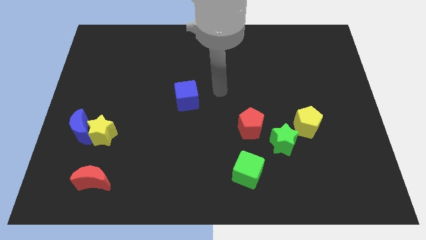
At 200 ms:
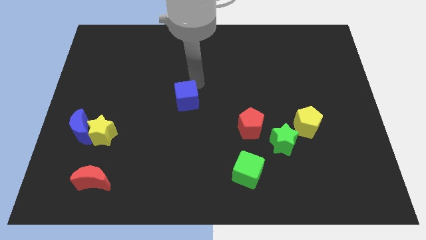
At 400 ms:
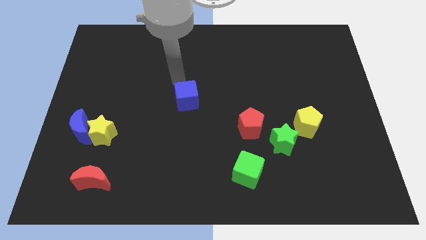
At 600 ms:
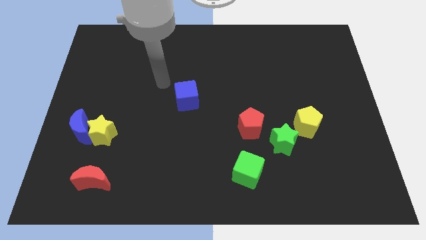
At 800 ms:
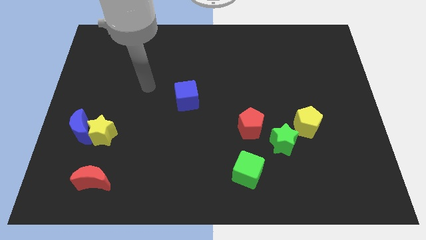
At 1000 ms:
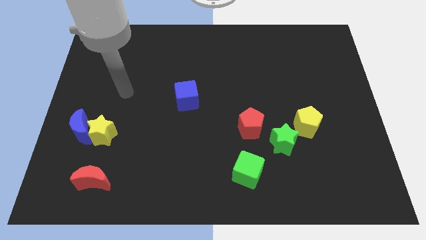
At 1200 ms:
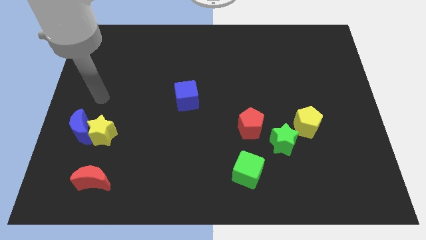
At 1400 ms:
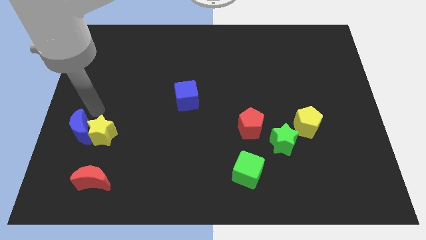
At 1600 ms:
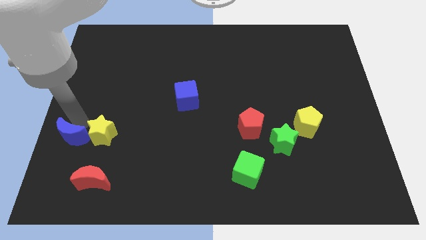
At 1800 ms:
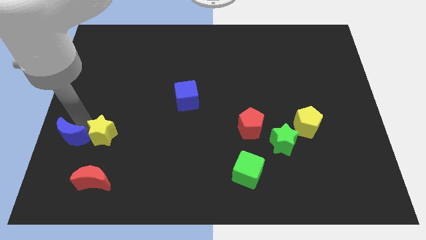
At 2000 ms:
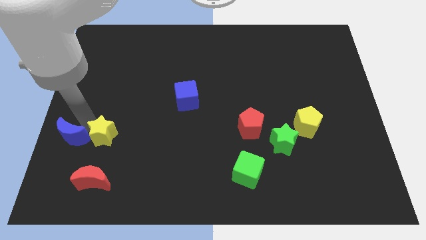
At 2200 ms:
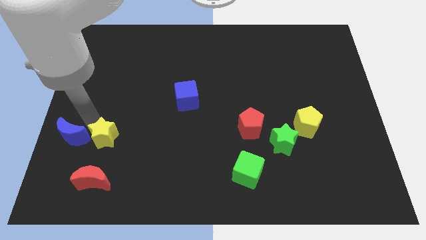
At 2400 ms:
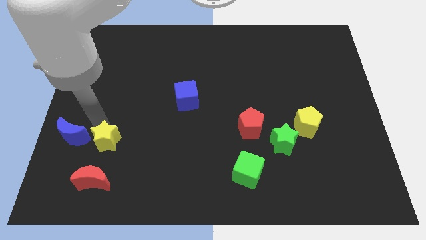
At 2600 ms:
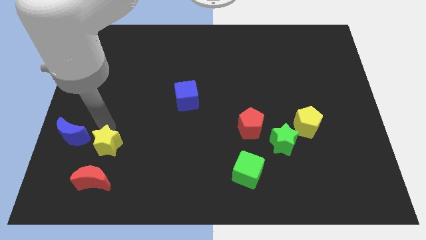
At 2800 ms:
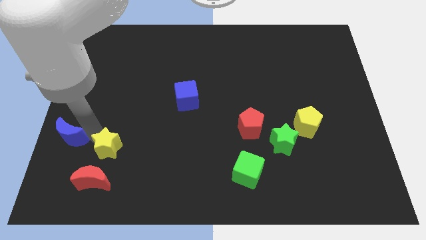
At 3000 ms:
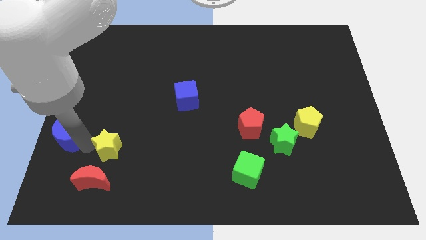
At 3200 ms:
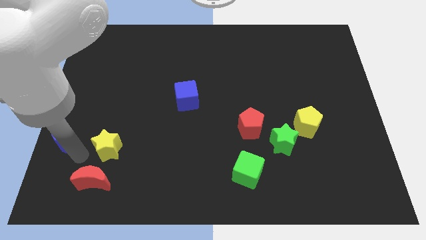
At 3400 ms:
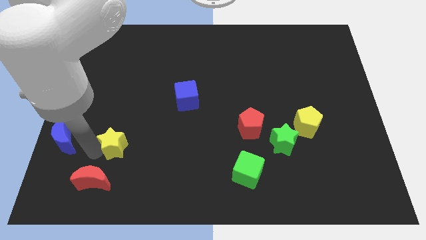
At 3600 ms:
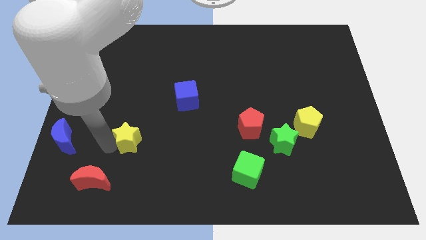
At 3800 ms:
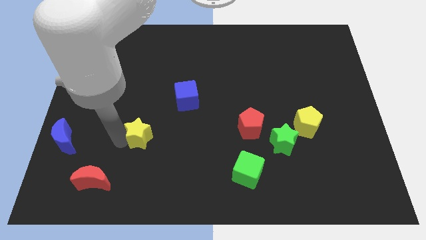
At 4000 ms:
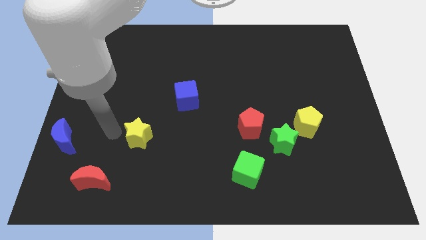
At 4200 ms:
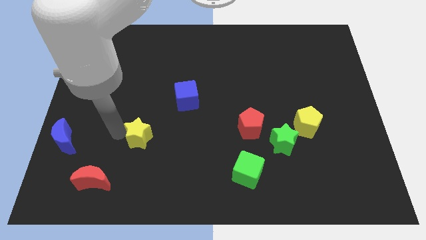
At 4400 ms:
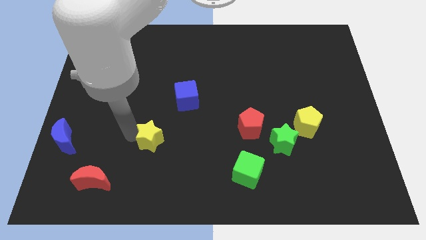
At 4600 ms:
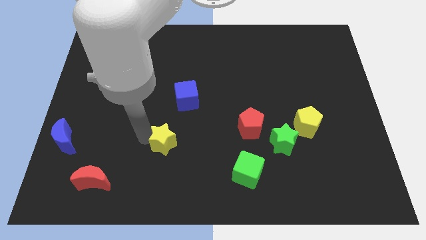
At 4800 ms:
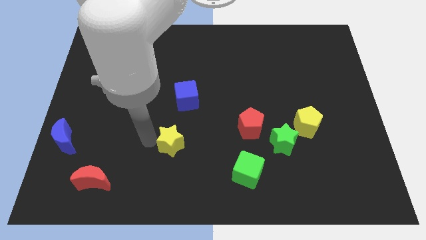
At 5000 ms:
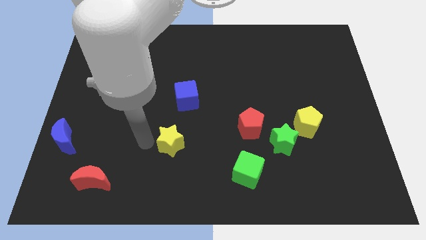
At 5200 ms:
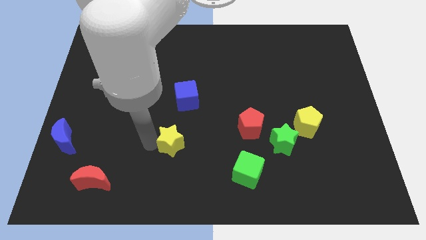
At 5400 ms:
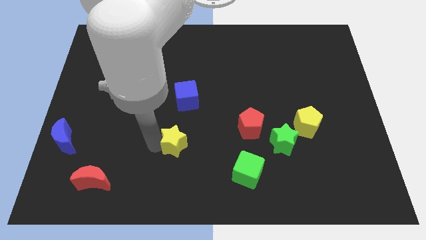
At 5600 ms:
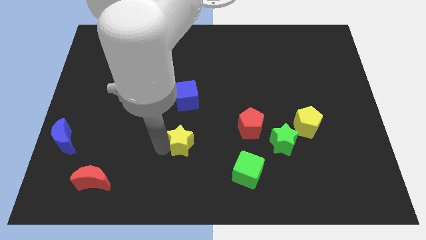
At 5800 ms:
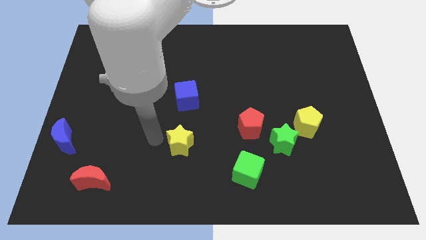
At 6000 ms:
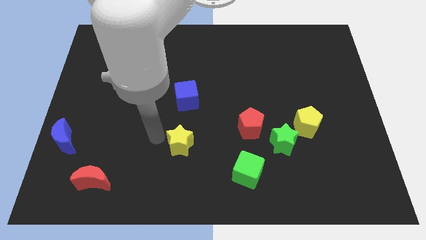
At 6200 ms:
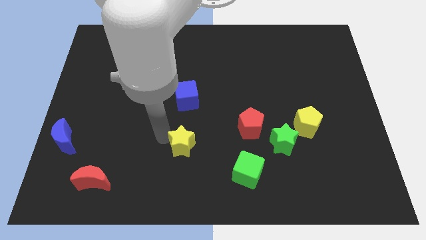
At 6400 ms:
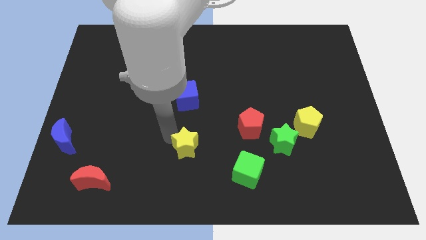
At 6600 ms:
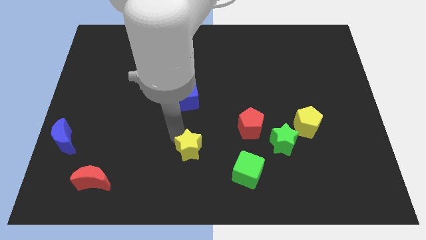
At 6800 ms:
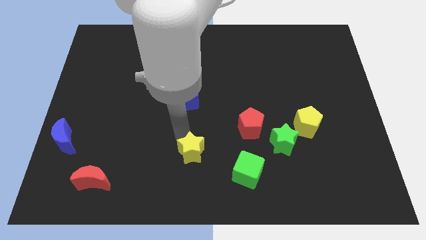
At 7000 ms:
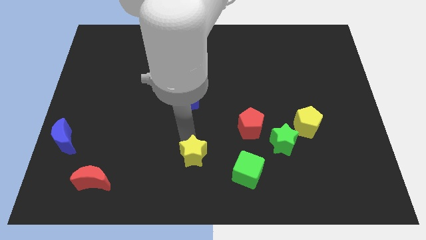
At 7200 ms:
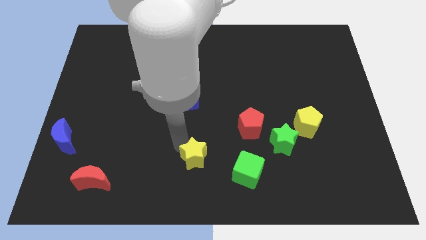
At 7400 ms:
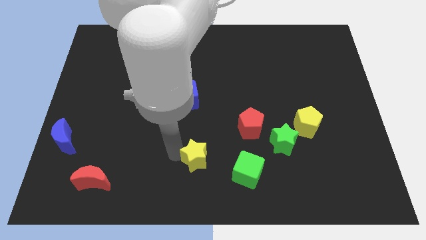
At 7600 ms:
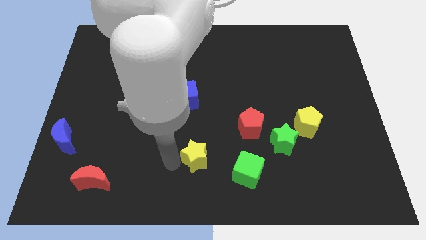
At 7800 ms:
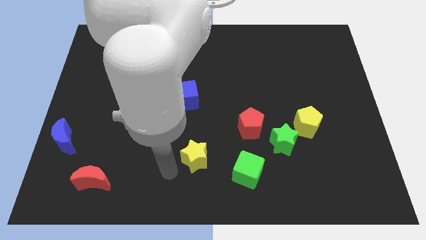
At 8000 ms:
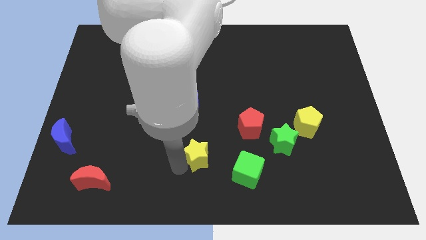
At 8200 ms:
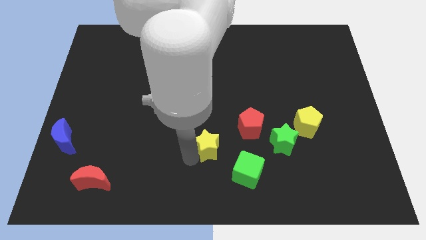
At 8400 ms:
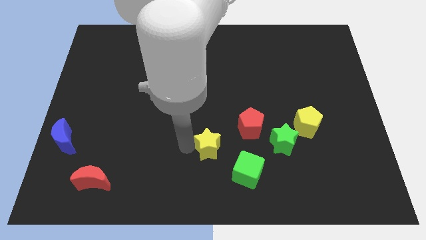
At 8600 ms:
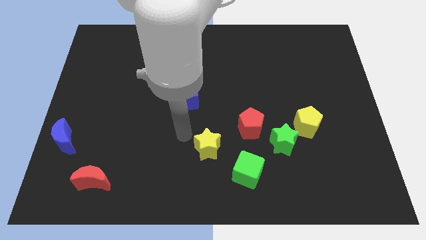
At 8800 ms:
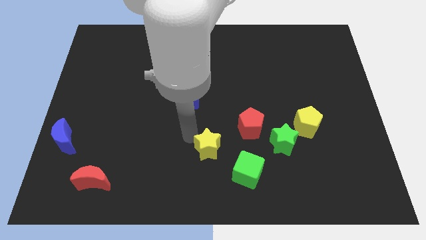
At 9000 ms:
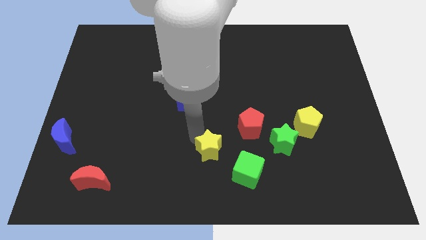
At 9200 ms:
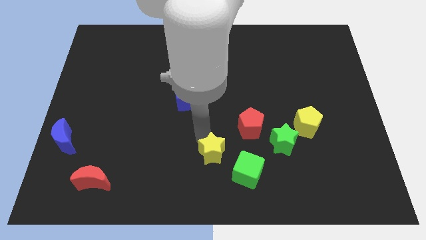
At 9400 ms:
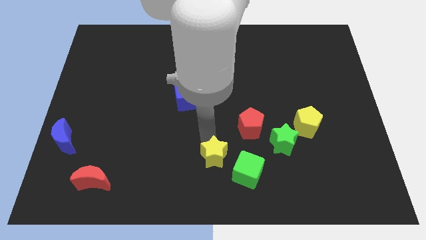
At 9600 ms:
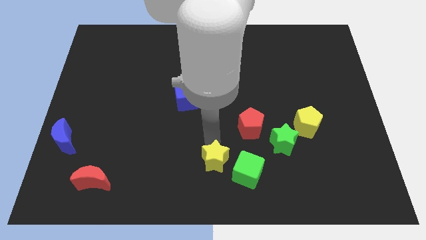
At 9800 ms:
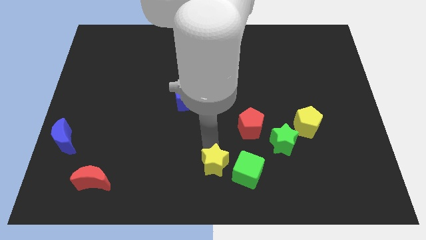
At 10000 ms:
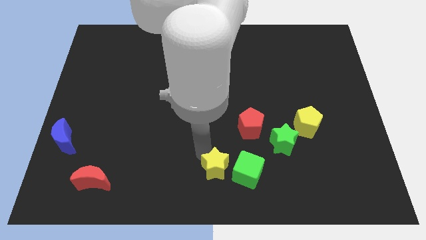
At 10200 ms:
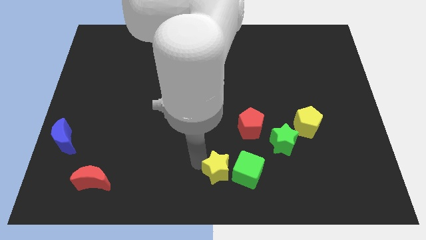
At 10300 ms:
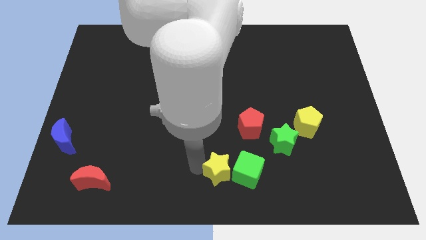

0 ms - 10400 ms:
push the yellow star next to the green cube
